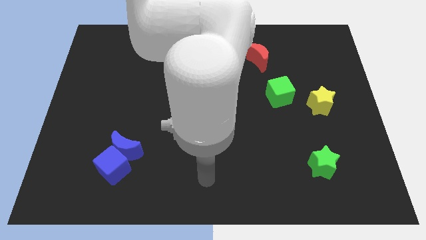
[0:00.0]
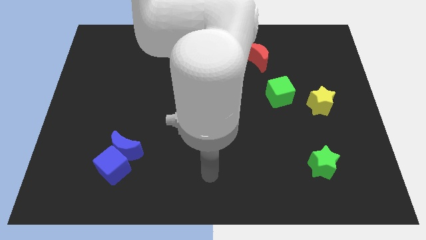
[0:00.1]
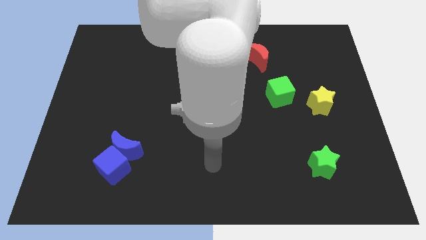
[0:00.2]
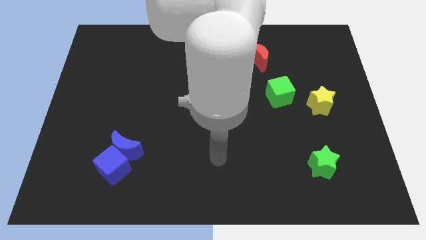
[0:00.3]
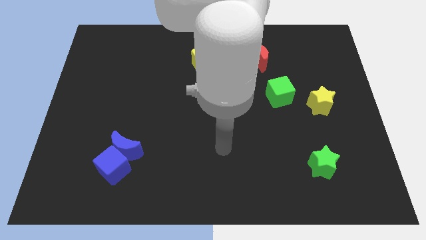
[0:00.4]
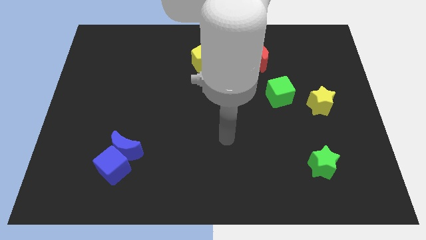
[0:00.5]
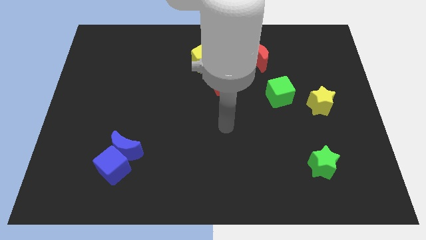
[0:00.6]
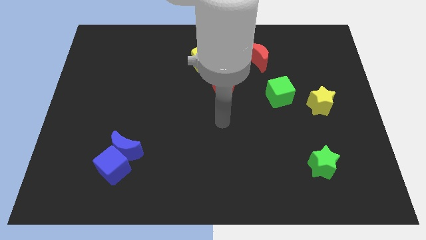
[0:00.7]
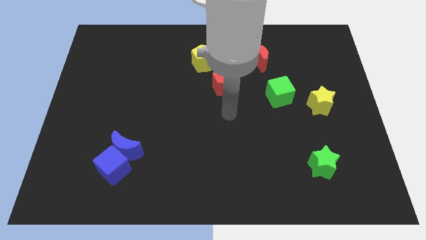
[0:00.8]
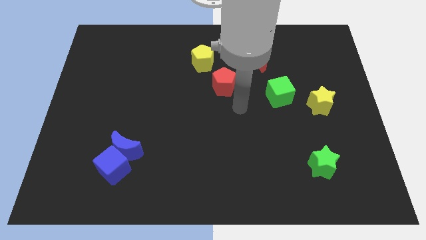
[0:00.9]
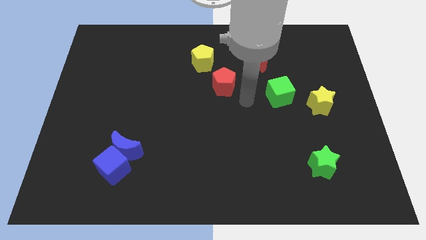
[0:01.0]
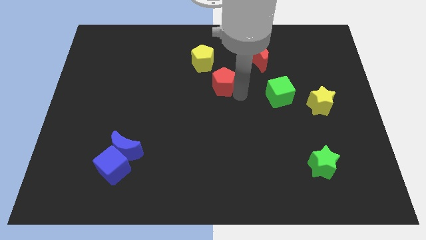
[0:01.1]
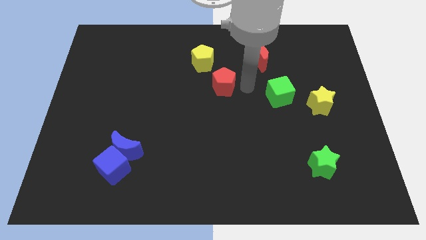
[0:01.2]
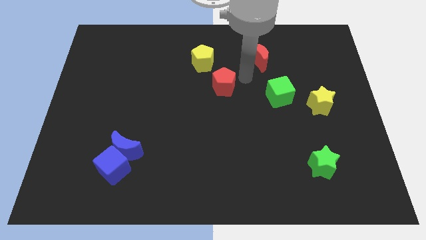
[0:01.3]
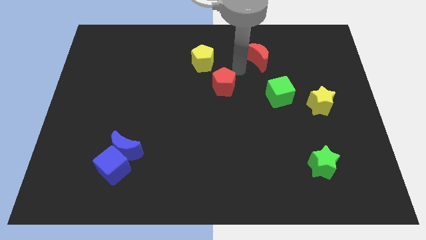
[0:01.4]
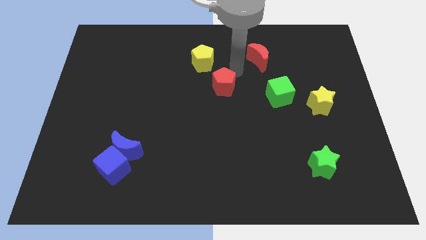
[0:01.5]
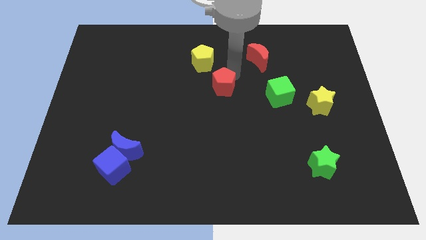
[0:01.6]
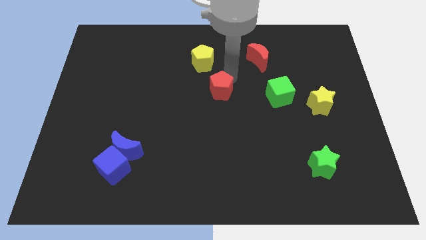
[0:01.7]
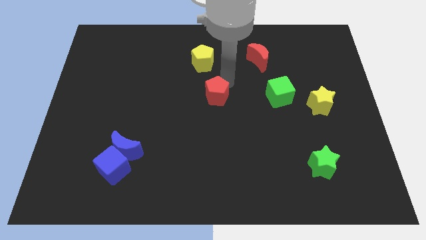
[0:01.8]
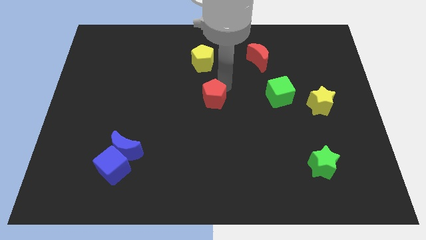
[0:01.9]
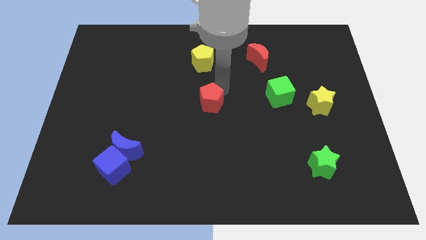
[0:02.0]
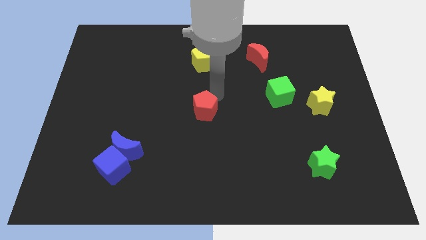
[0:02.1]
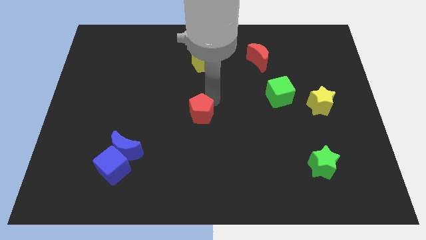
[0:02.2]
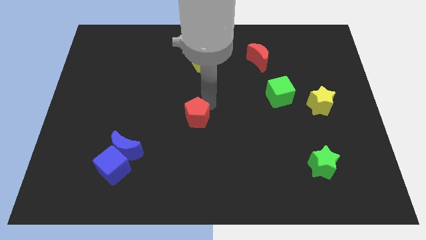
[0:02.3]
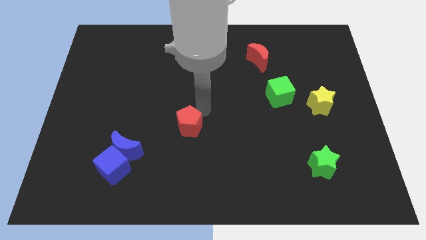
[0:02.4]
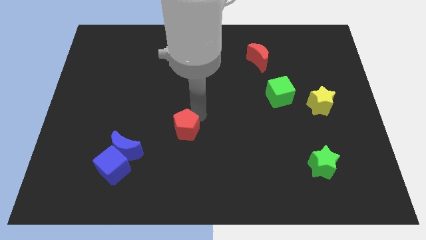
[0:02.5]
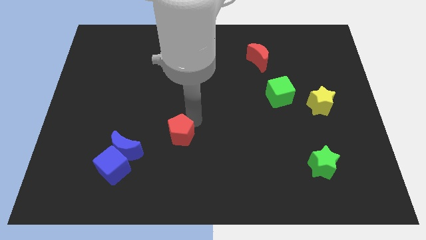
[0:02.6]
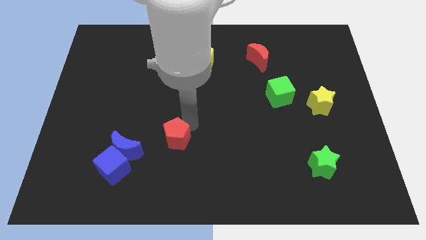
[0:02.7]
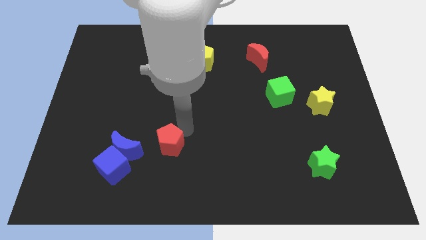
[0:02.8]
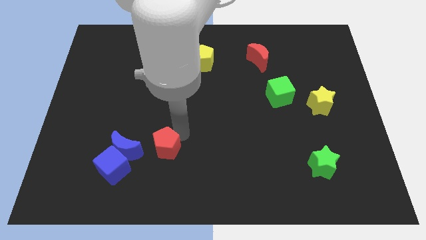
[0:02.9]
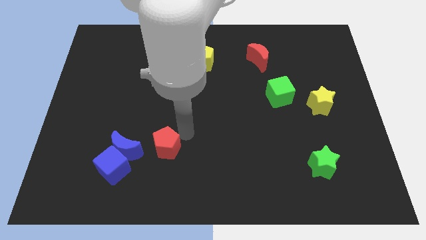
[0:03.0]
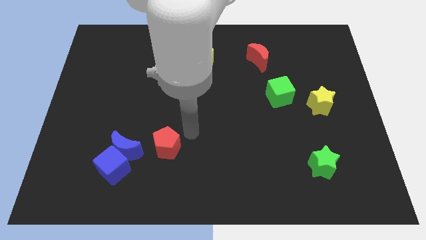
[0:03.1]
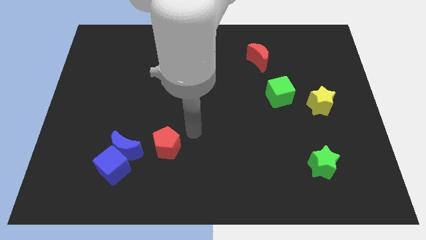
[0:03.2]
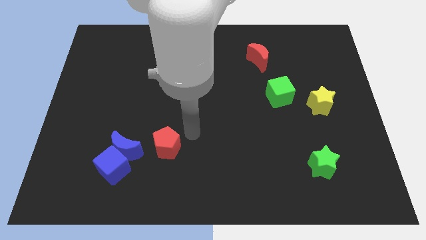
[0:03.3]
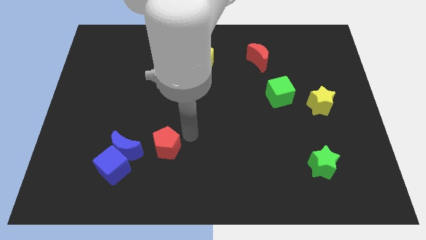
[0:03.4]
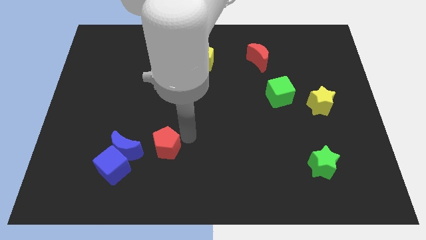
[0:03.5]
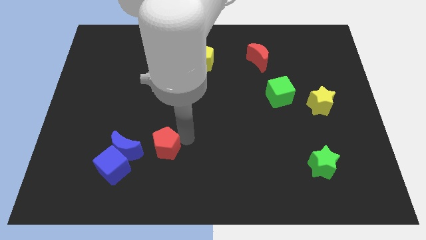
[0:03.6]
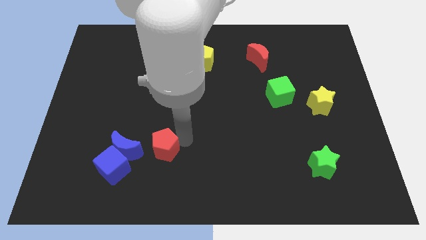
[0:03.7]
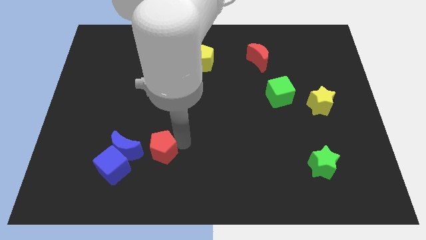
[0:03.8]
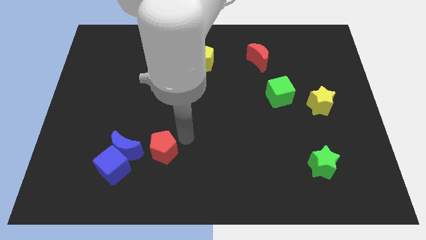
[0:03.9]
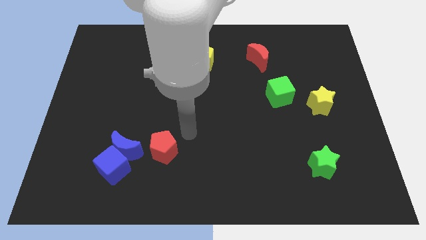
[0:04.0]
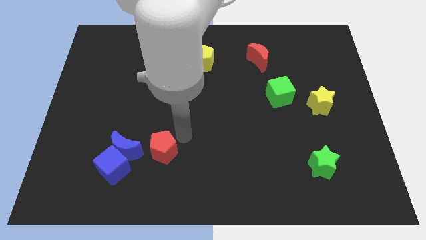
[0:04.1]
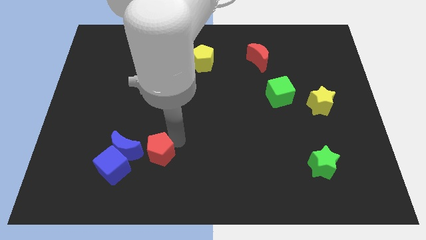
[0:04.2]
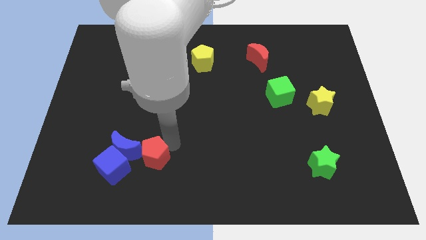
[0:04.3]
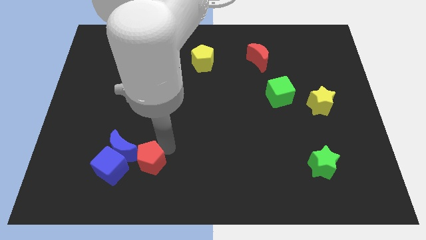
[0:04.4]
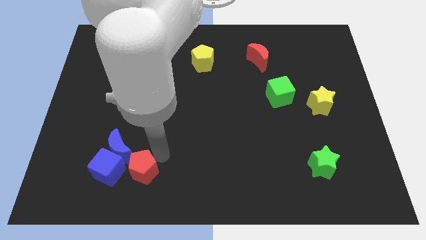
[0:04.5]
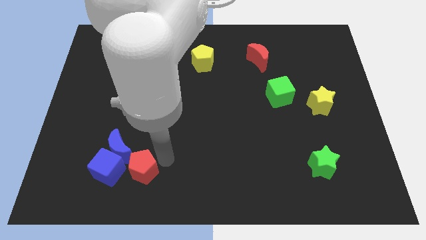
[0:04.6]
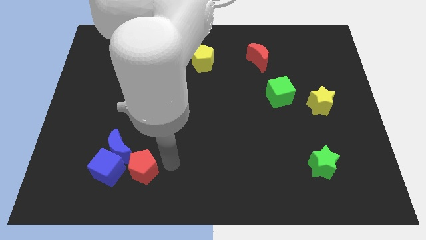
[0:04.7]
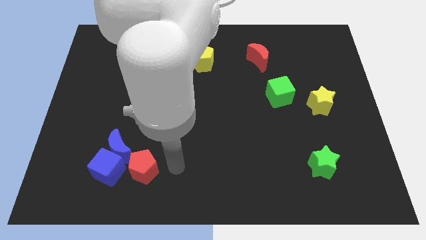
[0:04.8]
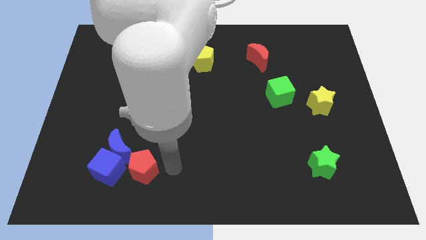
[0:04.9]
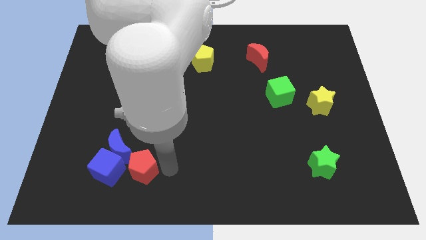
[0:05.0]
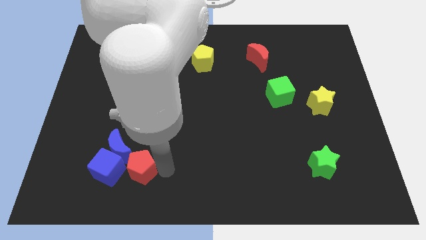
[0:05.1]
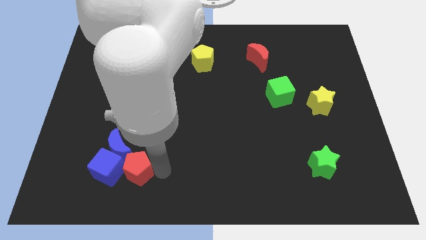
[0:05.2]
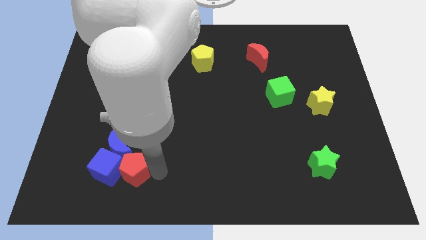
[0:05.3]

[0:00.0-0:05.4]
put the red pentagon towards the blue cube

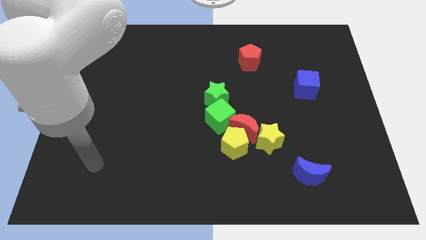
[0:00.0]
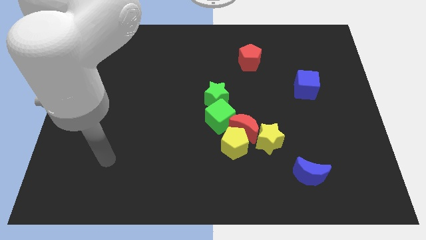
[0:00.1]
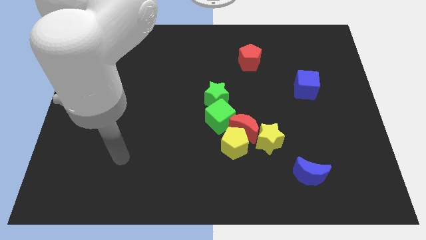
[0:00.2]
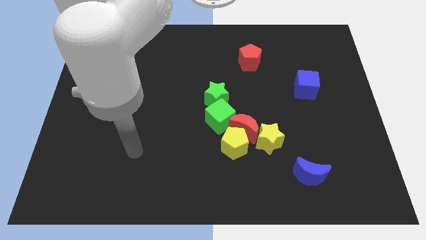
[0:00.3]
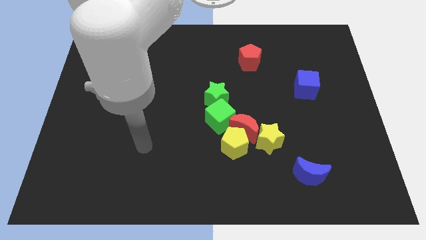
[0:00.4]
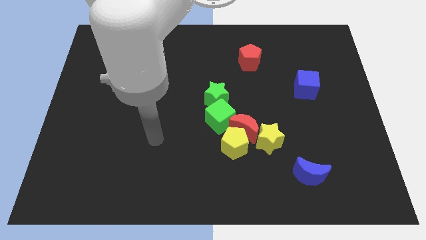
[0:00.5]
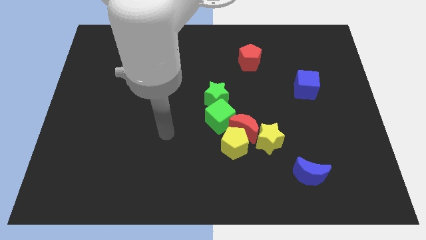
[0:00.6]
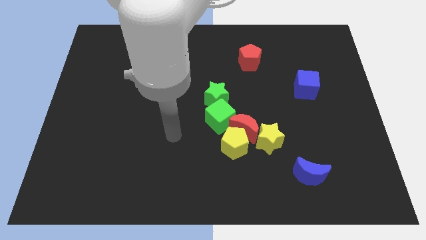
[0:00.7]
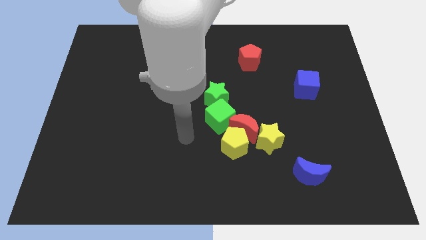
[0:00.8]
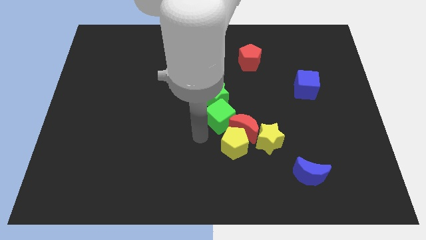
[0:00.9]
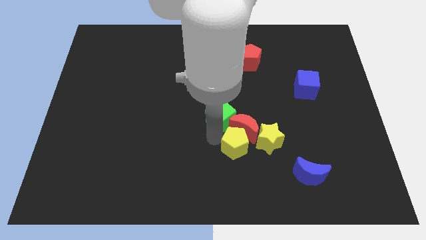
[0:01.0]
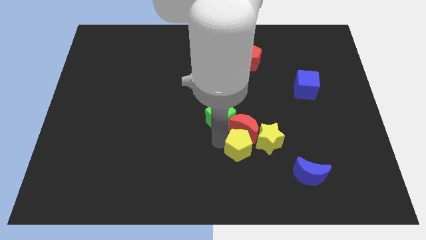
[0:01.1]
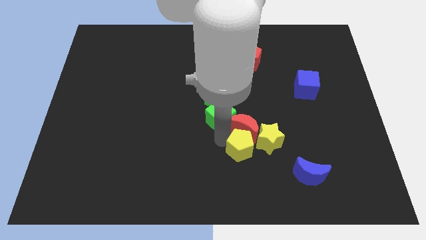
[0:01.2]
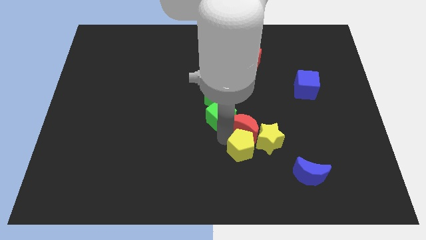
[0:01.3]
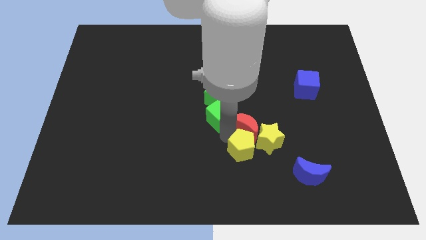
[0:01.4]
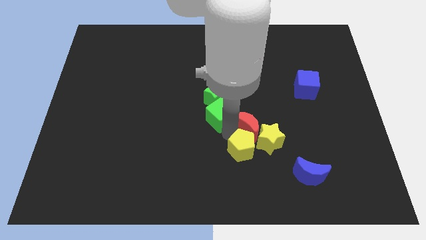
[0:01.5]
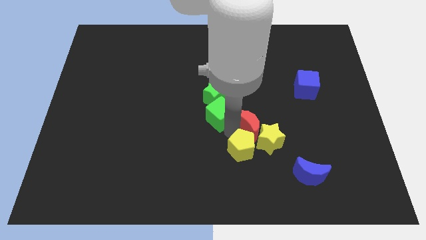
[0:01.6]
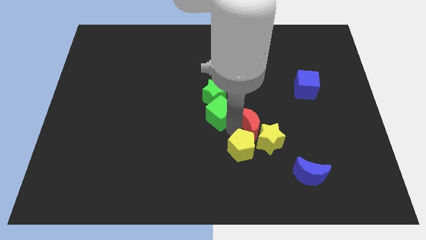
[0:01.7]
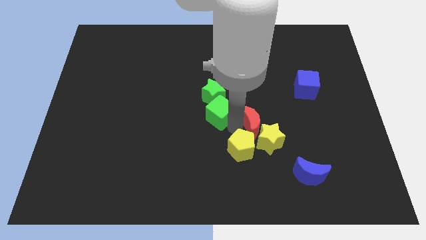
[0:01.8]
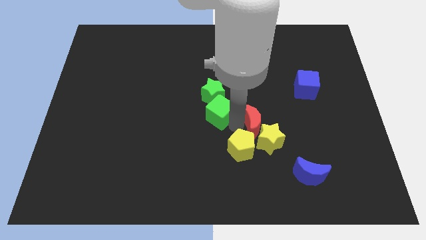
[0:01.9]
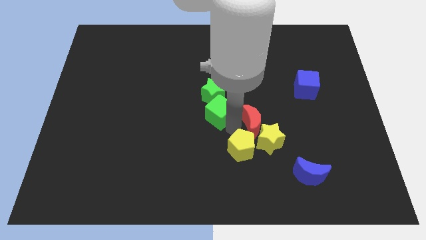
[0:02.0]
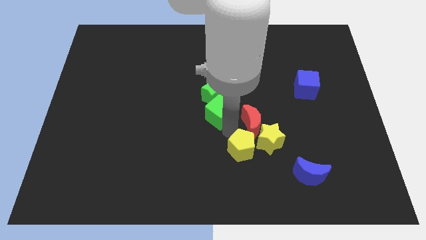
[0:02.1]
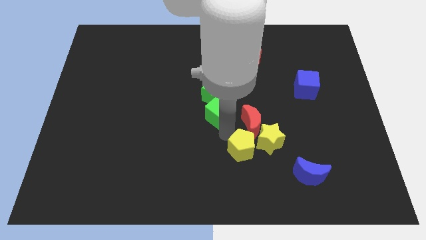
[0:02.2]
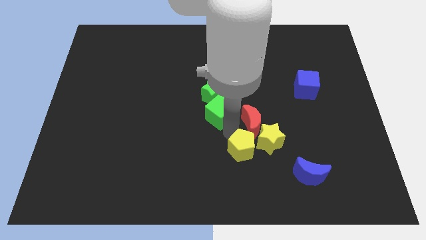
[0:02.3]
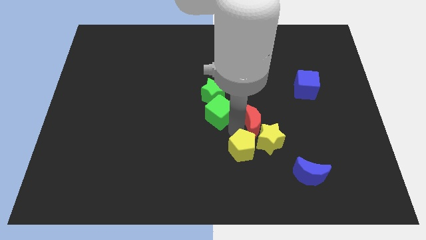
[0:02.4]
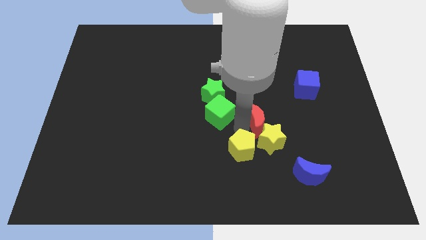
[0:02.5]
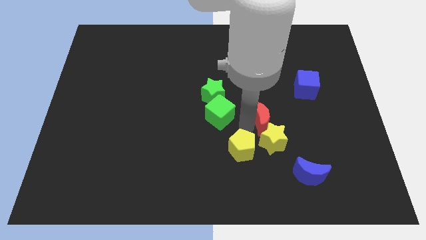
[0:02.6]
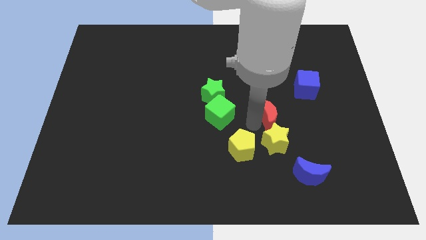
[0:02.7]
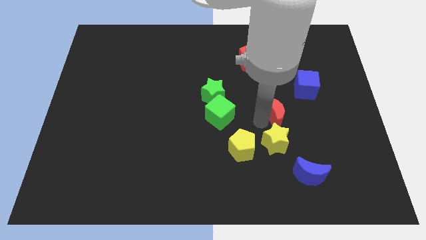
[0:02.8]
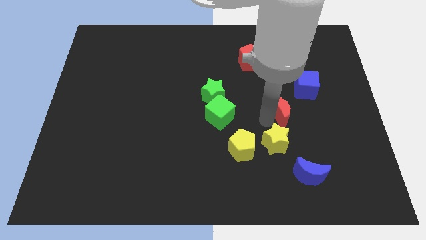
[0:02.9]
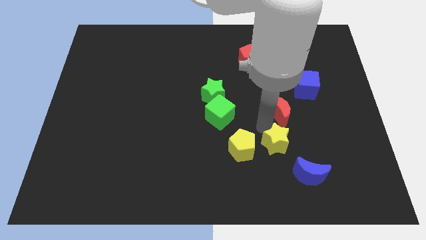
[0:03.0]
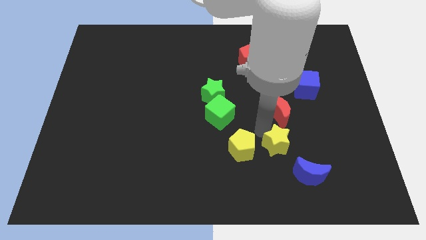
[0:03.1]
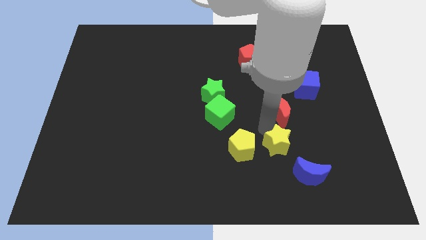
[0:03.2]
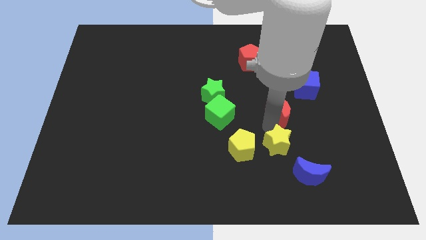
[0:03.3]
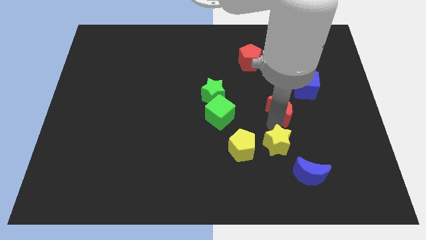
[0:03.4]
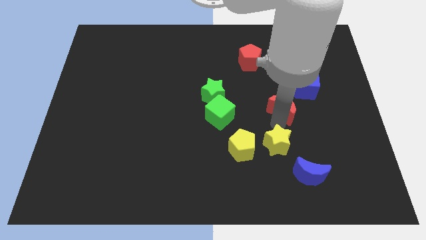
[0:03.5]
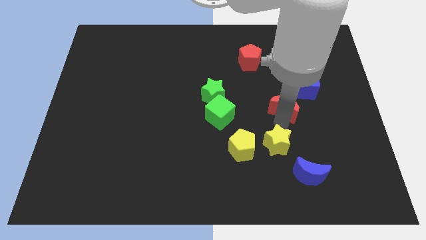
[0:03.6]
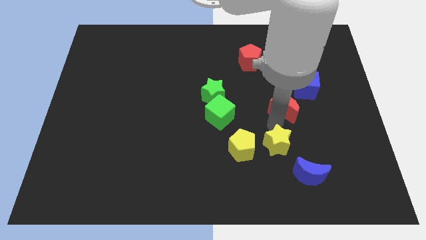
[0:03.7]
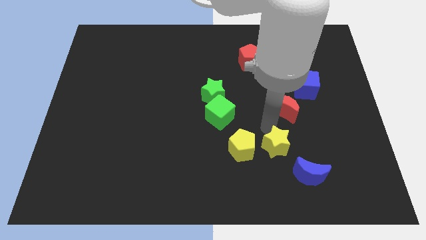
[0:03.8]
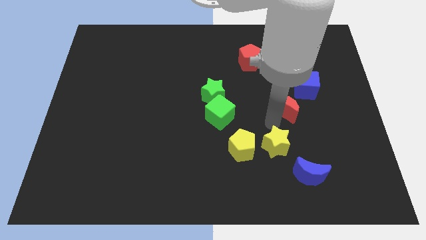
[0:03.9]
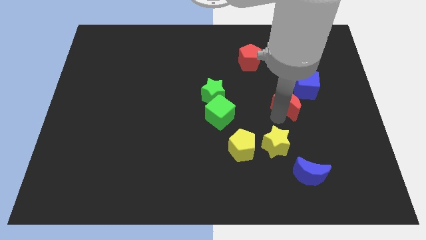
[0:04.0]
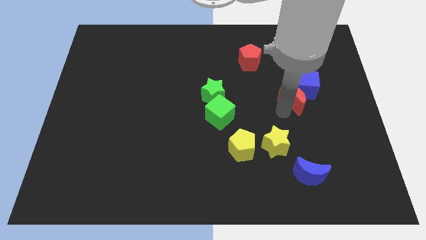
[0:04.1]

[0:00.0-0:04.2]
put the red moon towards the blue cube
